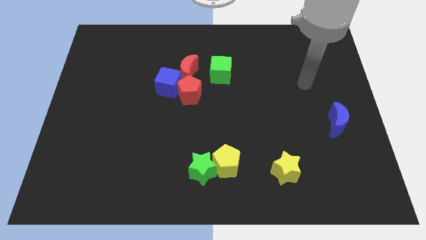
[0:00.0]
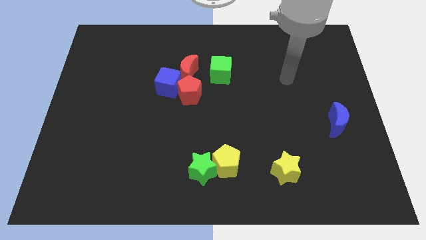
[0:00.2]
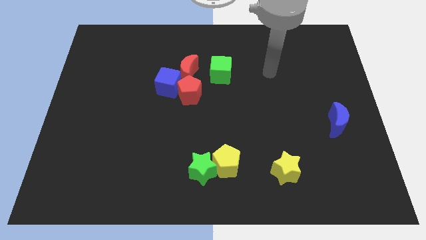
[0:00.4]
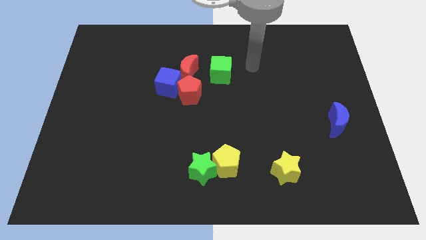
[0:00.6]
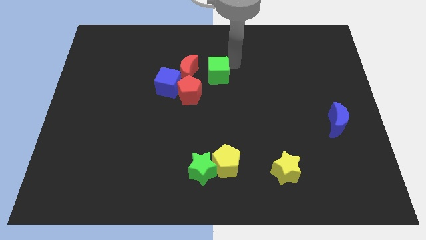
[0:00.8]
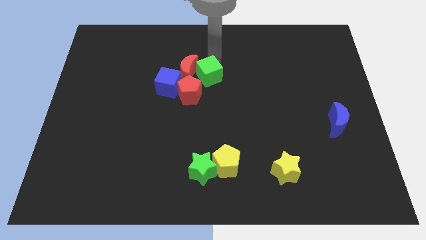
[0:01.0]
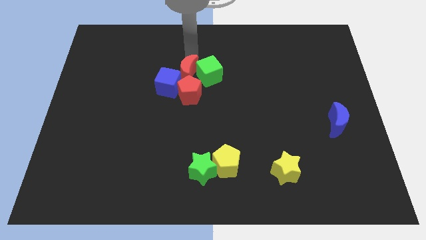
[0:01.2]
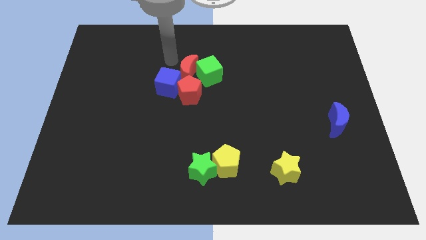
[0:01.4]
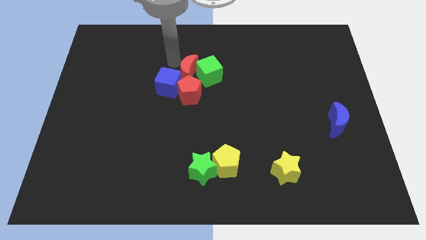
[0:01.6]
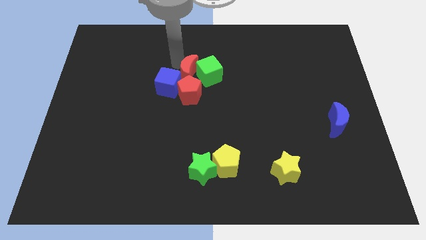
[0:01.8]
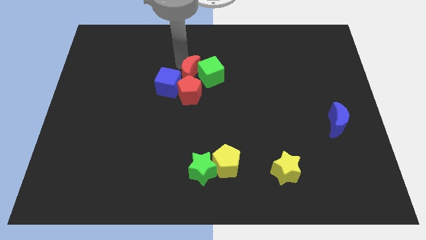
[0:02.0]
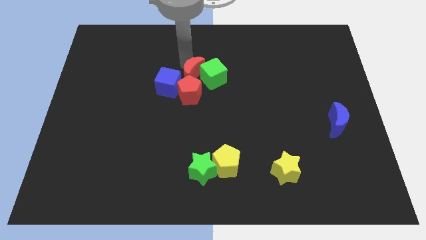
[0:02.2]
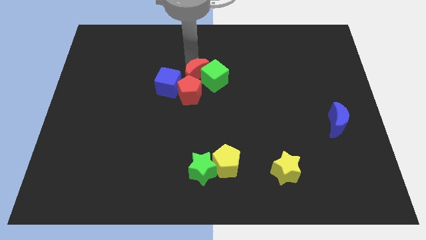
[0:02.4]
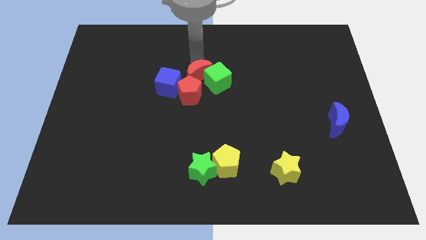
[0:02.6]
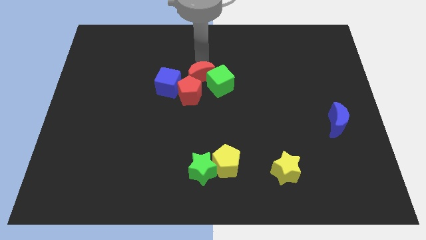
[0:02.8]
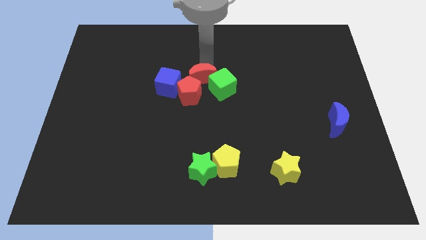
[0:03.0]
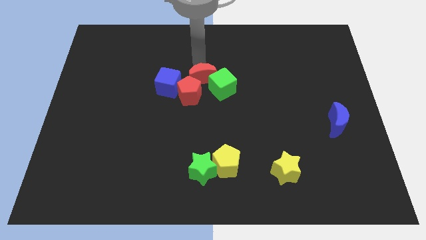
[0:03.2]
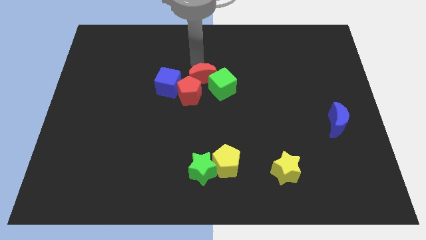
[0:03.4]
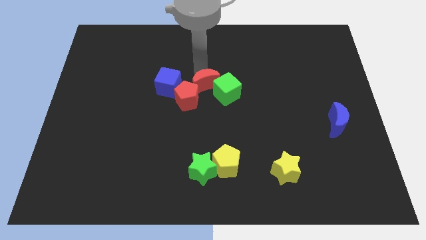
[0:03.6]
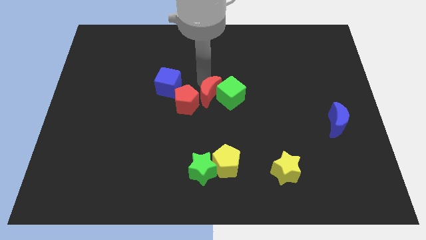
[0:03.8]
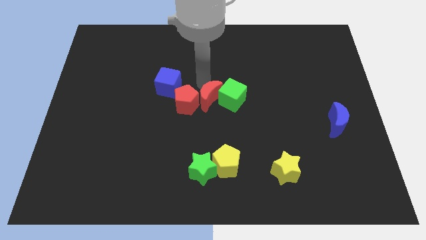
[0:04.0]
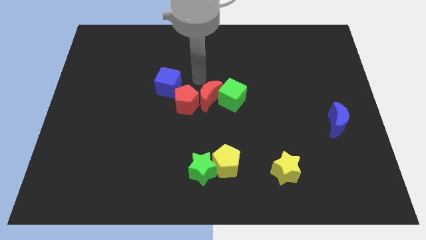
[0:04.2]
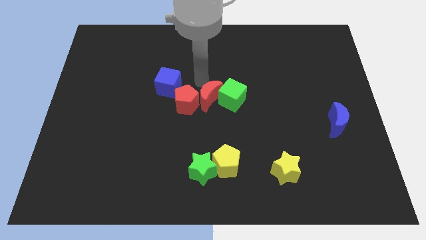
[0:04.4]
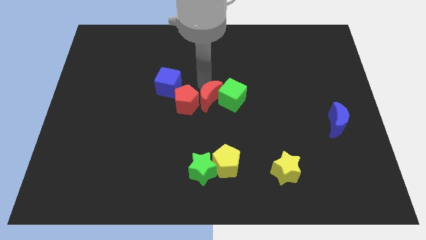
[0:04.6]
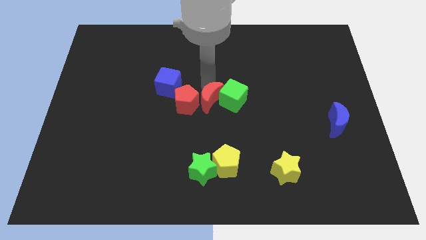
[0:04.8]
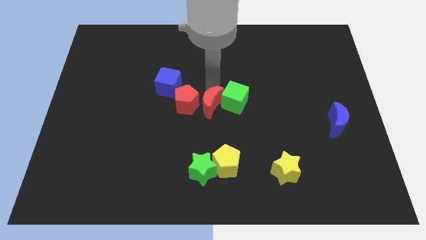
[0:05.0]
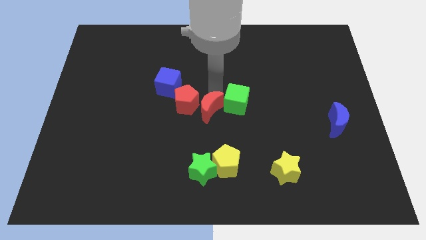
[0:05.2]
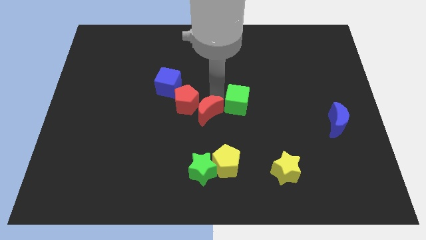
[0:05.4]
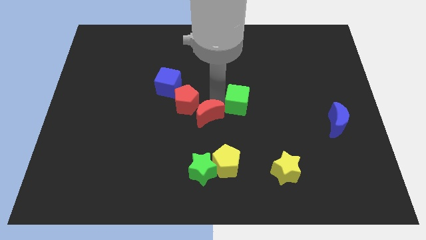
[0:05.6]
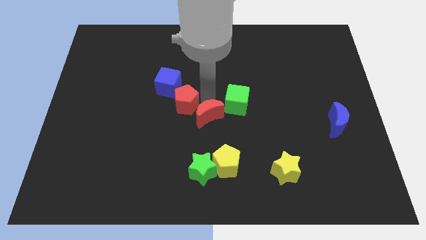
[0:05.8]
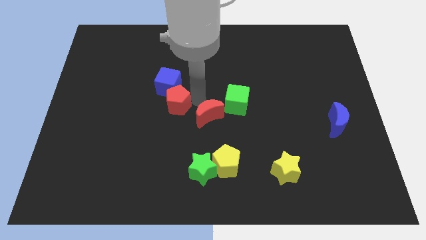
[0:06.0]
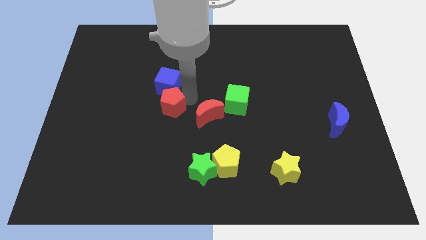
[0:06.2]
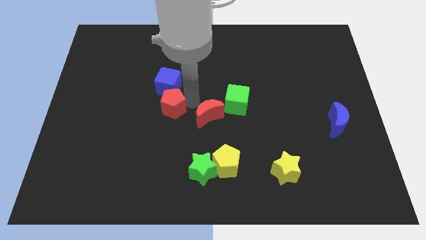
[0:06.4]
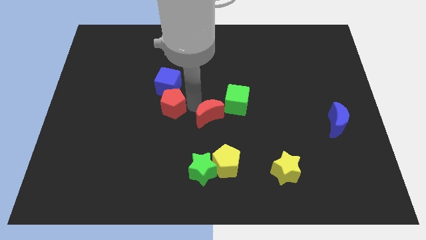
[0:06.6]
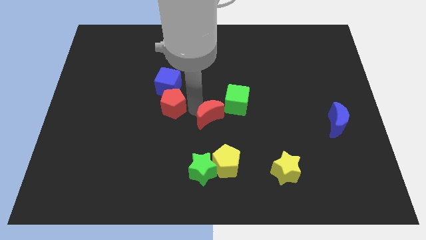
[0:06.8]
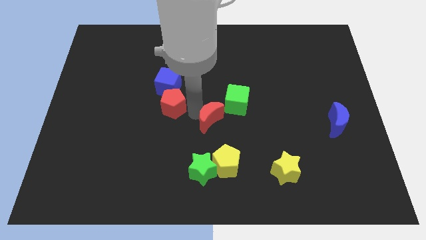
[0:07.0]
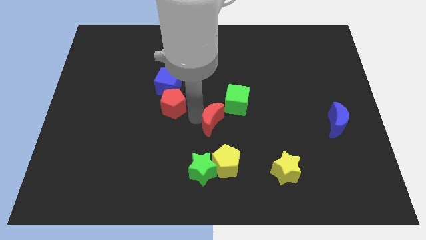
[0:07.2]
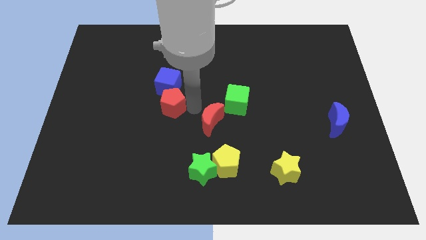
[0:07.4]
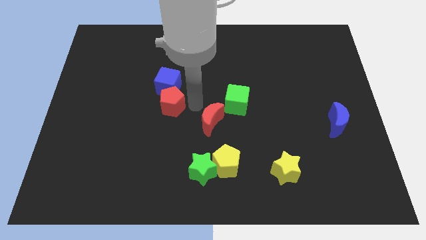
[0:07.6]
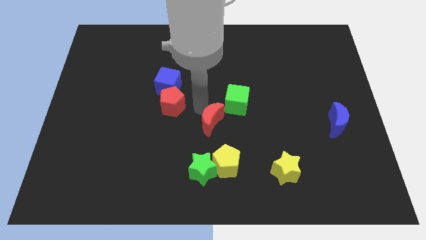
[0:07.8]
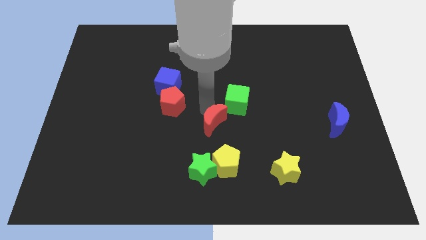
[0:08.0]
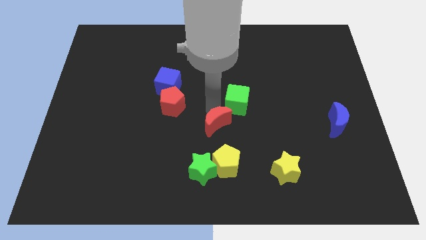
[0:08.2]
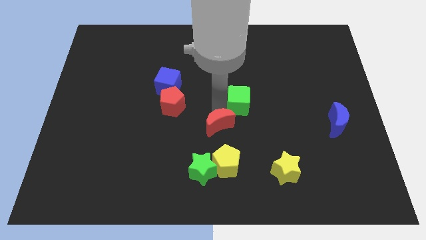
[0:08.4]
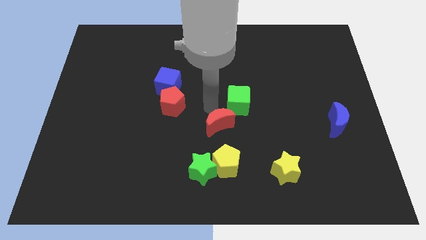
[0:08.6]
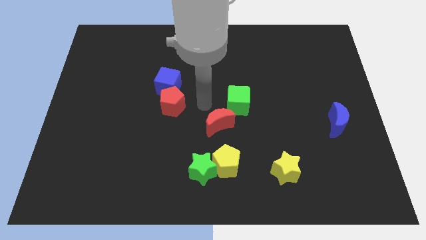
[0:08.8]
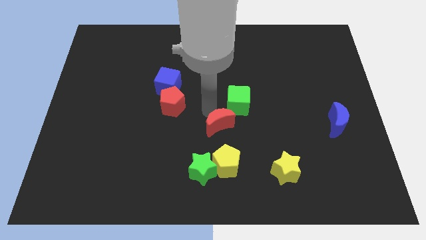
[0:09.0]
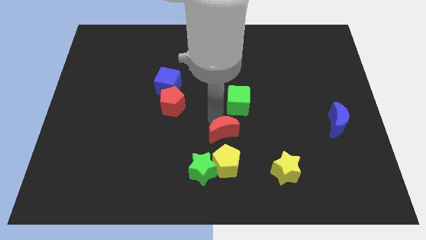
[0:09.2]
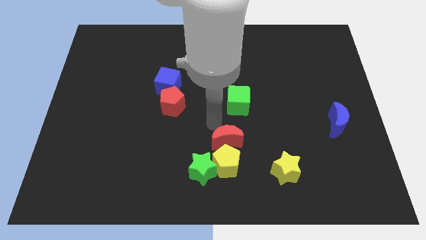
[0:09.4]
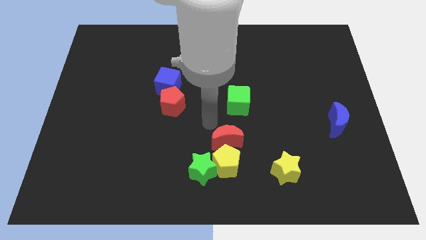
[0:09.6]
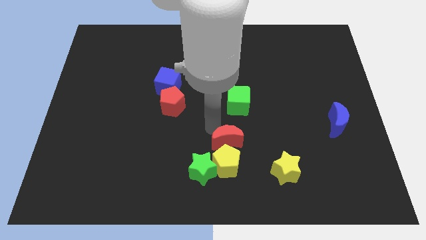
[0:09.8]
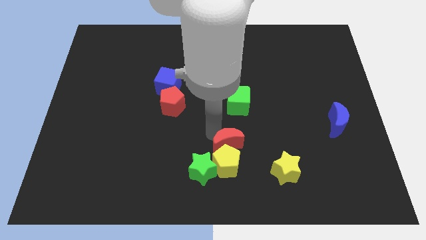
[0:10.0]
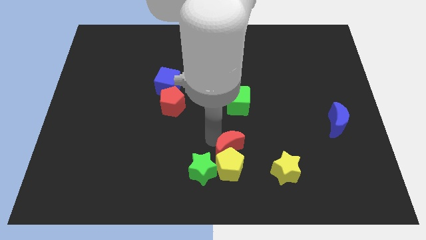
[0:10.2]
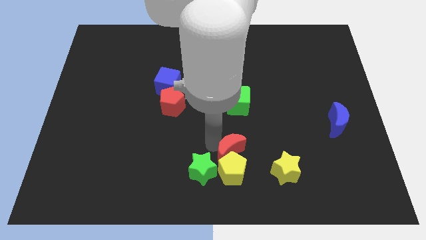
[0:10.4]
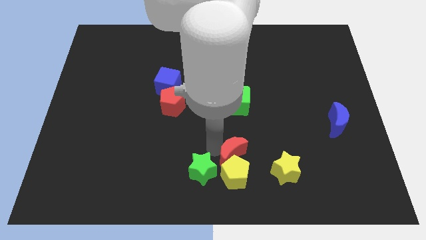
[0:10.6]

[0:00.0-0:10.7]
put the red moon to the bottom

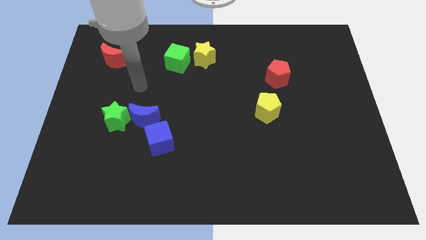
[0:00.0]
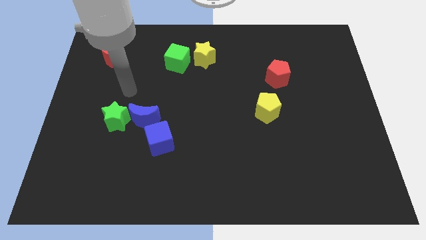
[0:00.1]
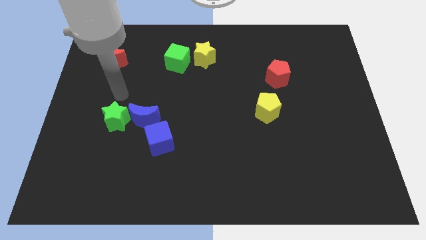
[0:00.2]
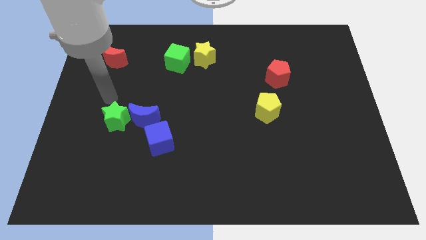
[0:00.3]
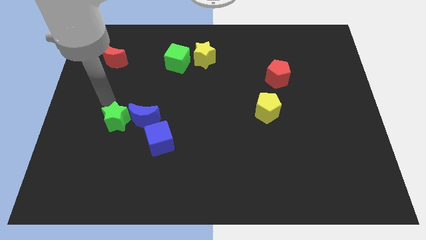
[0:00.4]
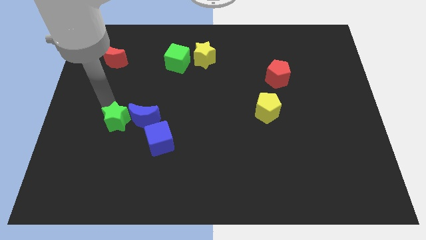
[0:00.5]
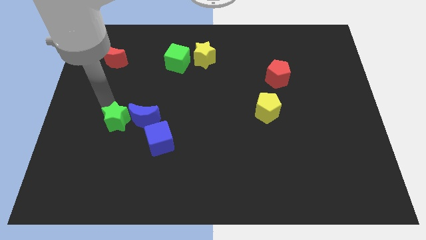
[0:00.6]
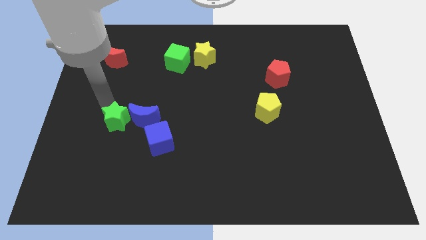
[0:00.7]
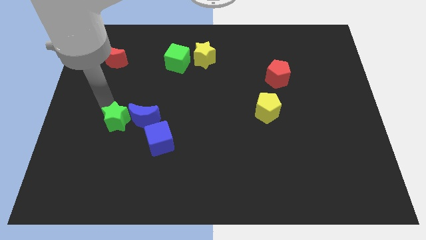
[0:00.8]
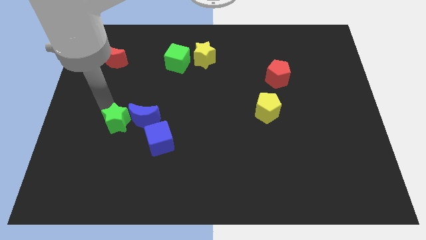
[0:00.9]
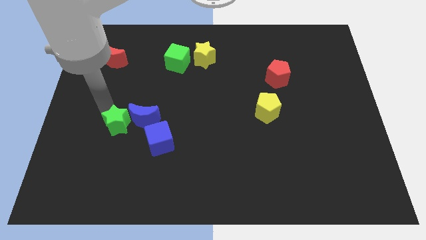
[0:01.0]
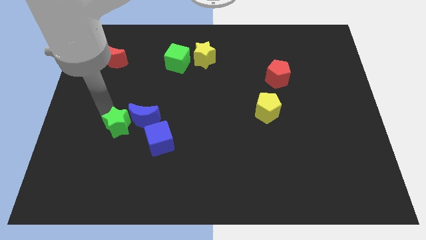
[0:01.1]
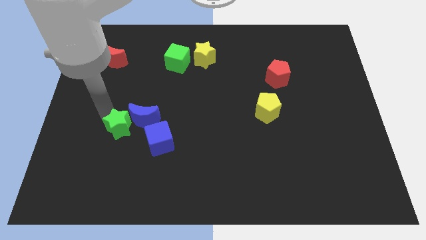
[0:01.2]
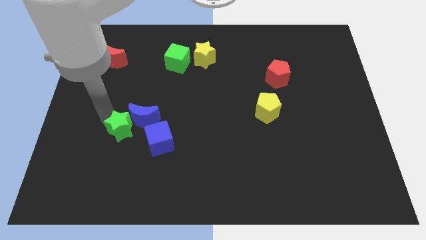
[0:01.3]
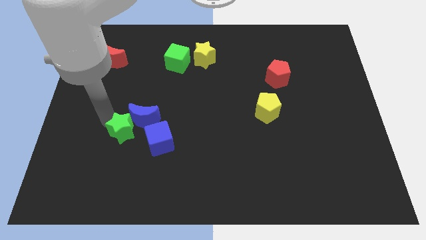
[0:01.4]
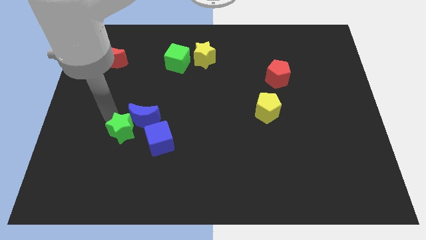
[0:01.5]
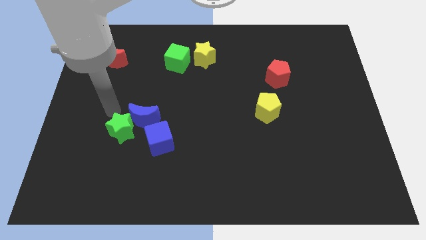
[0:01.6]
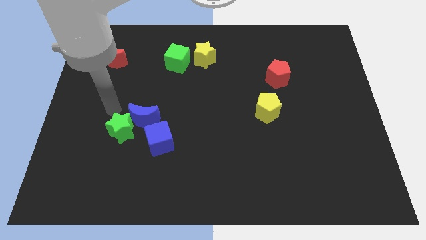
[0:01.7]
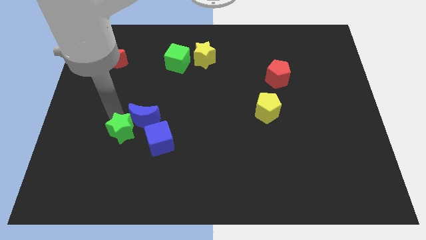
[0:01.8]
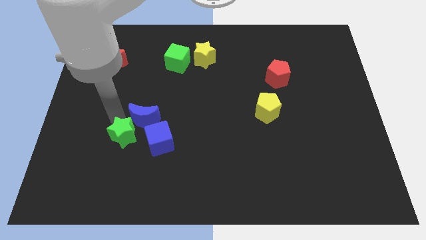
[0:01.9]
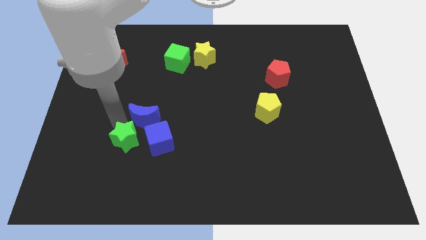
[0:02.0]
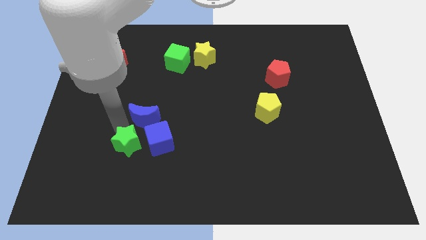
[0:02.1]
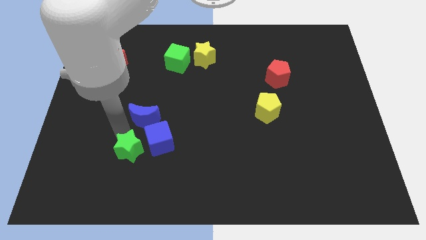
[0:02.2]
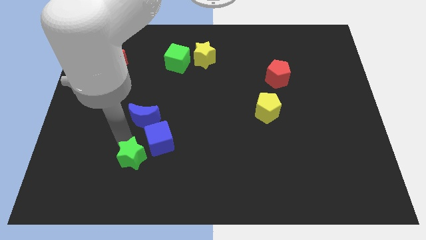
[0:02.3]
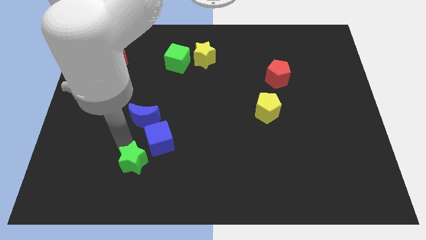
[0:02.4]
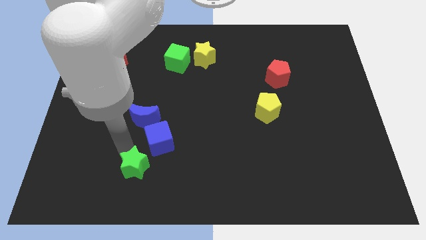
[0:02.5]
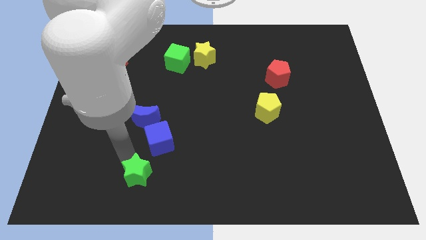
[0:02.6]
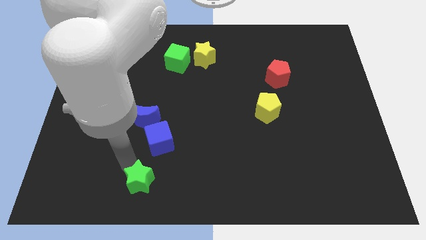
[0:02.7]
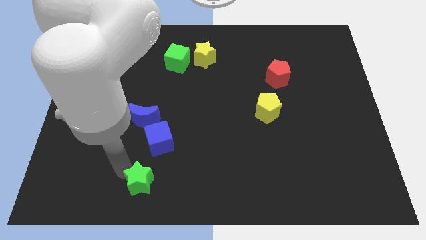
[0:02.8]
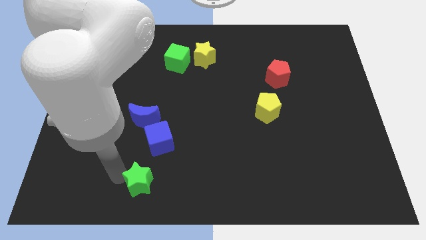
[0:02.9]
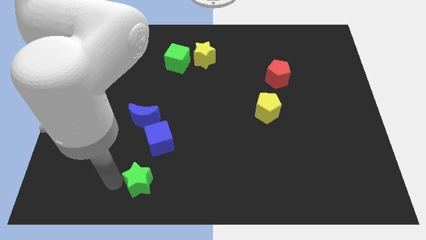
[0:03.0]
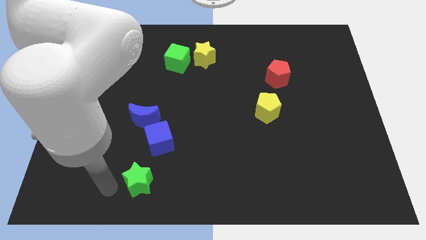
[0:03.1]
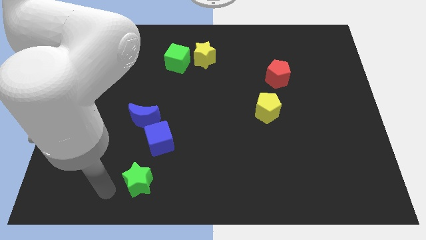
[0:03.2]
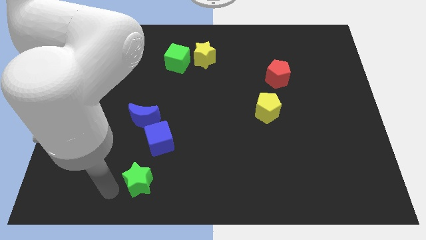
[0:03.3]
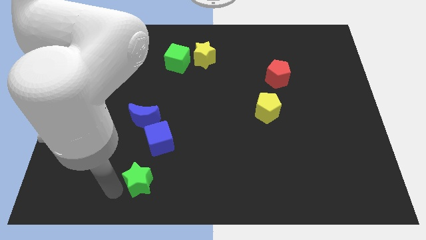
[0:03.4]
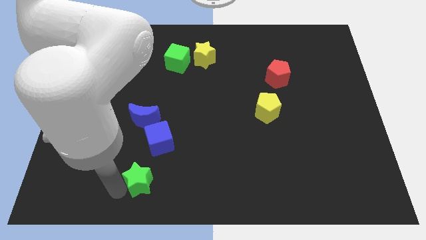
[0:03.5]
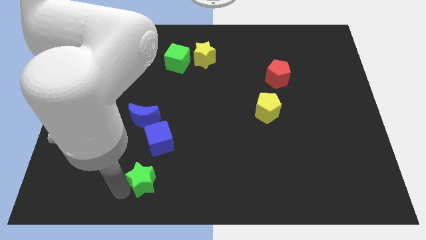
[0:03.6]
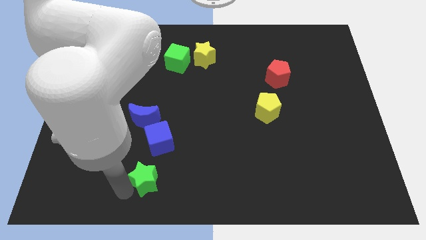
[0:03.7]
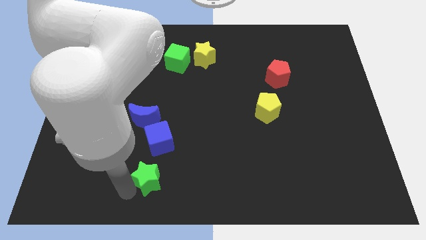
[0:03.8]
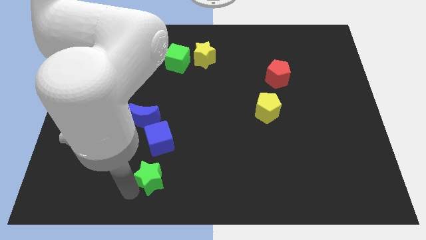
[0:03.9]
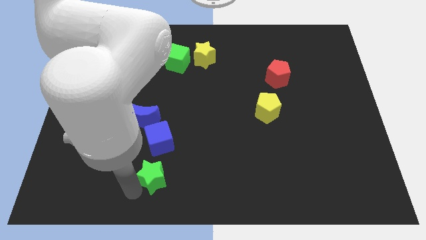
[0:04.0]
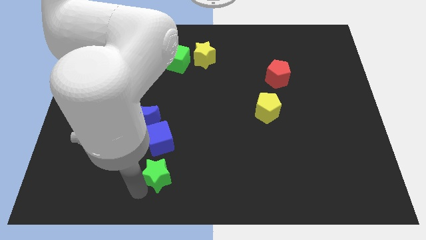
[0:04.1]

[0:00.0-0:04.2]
put the green star to the bottom
